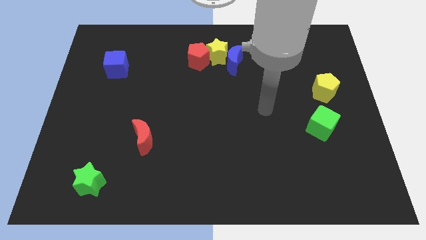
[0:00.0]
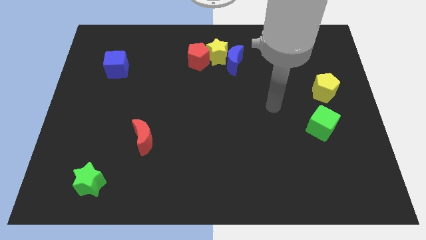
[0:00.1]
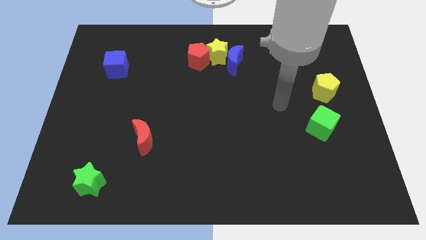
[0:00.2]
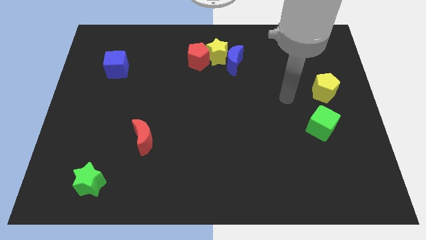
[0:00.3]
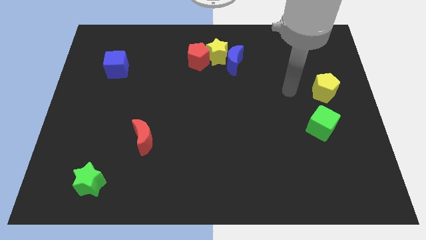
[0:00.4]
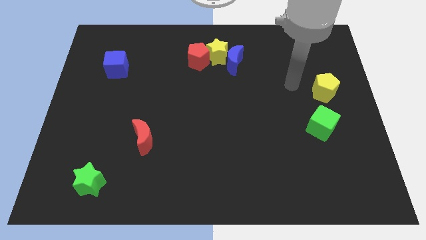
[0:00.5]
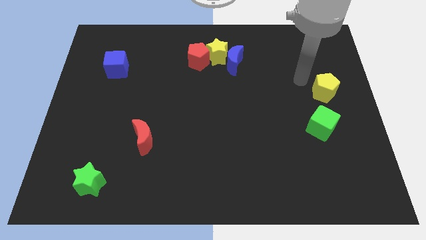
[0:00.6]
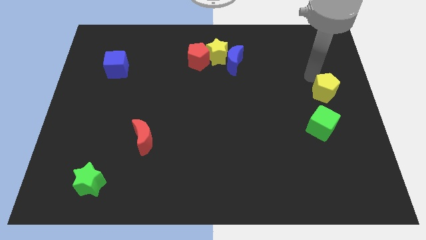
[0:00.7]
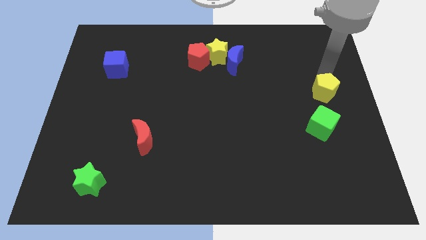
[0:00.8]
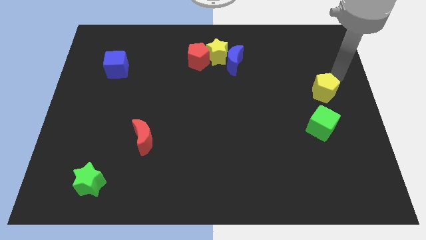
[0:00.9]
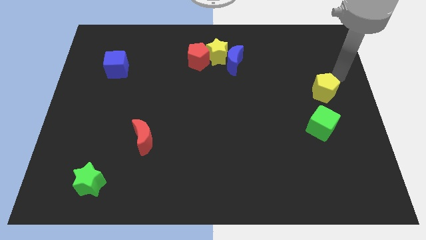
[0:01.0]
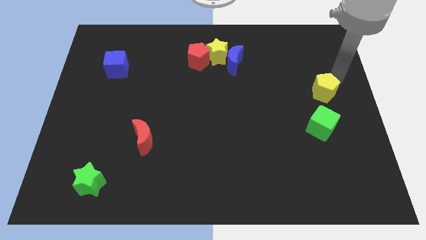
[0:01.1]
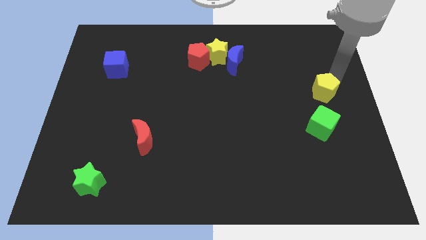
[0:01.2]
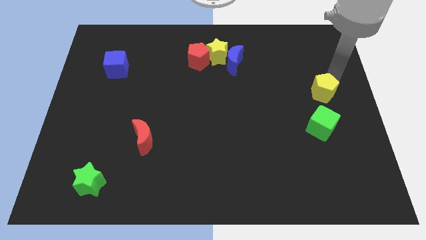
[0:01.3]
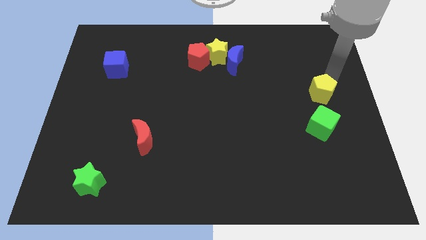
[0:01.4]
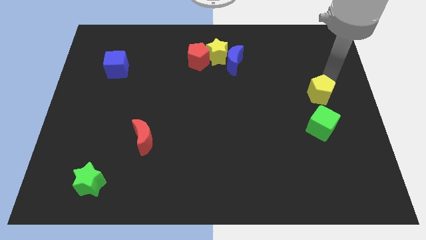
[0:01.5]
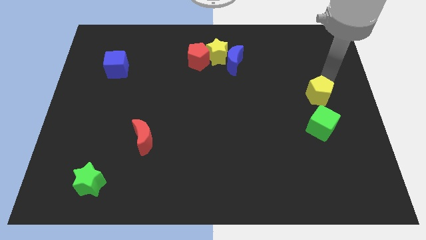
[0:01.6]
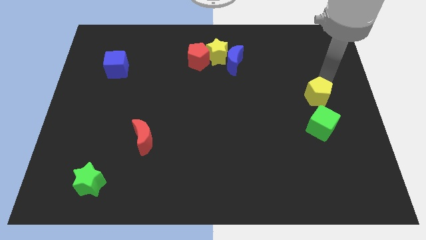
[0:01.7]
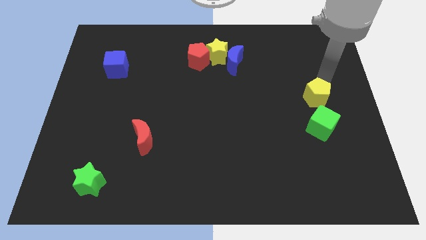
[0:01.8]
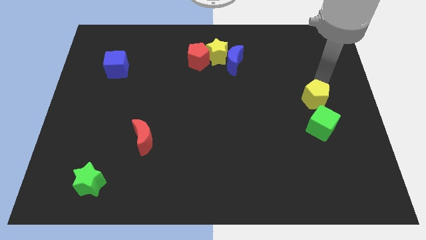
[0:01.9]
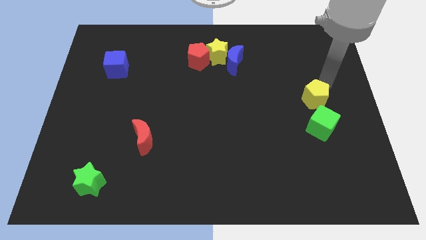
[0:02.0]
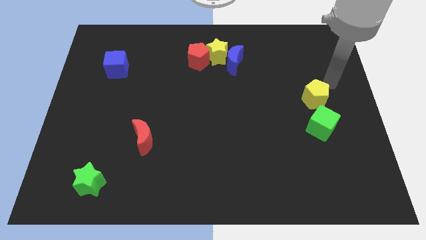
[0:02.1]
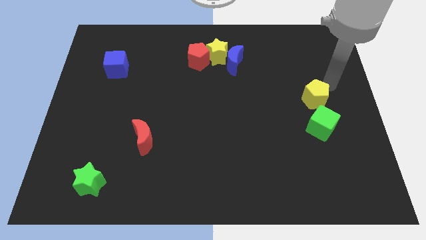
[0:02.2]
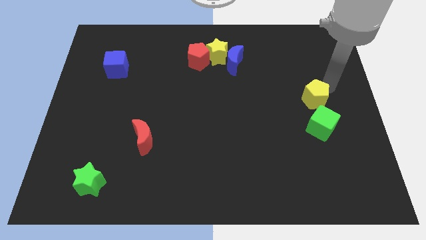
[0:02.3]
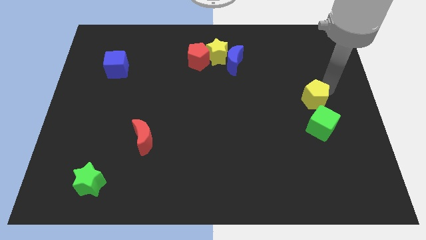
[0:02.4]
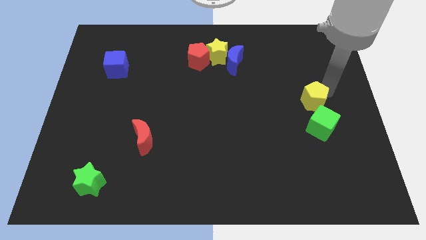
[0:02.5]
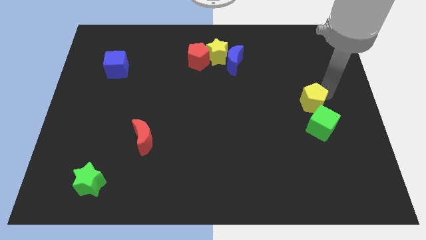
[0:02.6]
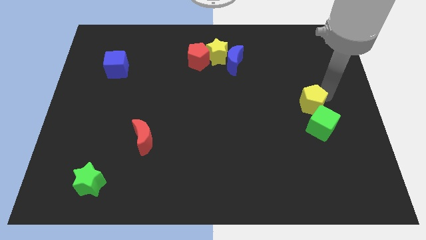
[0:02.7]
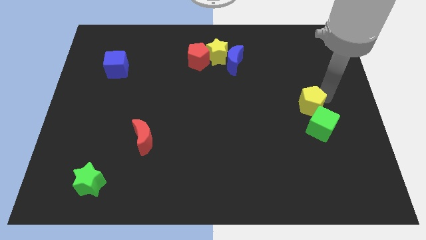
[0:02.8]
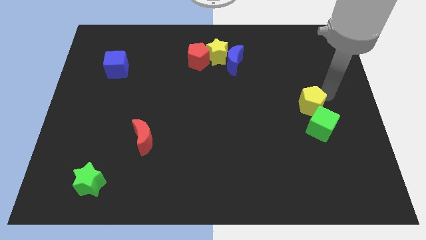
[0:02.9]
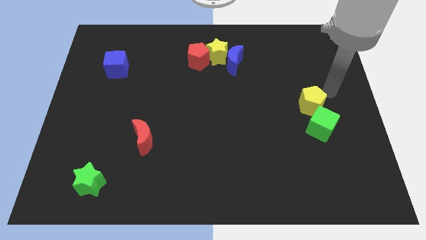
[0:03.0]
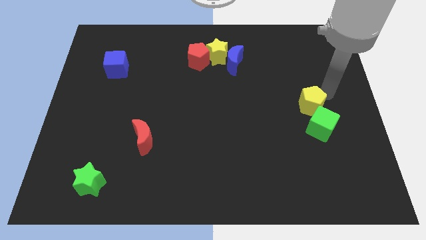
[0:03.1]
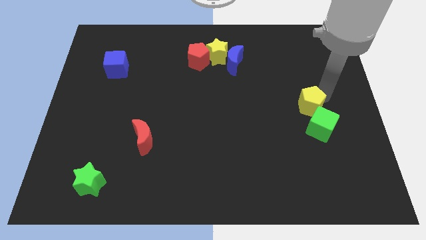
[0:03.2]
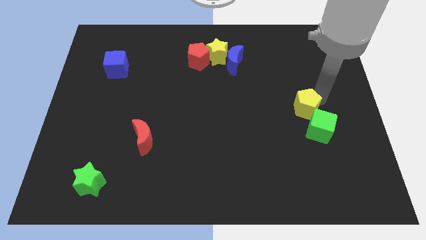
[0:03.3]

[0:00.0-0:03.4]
slide the yellow pentagon a little bit downwards and to the left diagonally

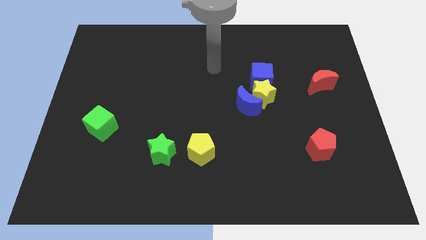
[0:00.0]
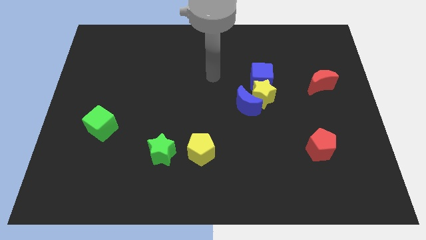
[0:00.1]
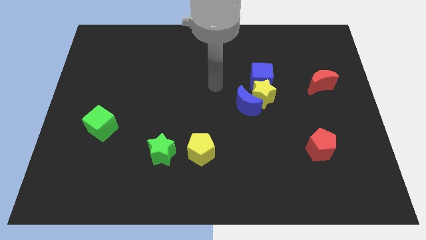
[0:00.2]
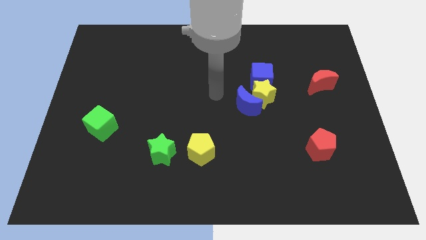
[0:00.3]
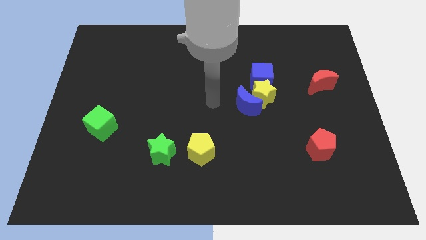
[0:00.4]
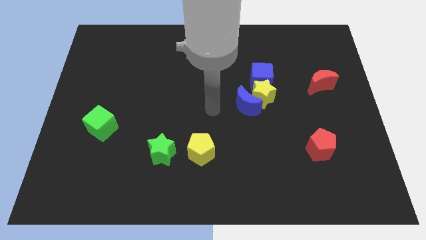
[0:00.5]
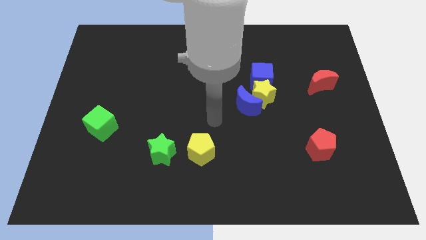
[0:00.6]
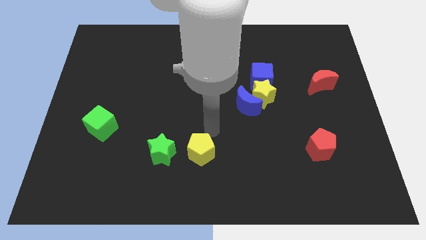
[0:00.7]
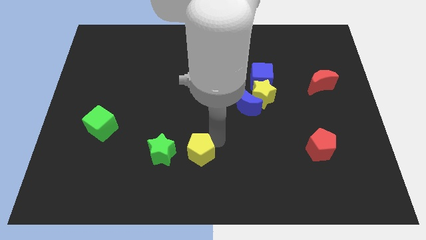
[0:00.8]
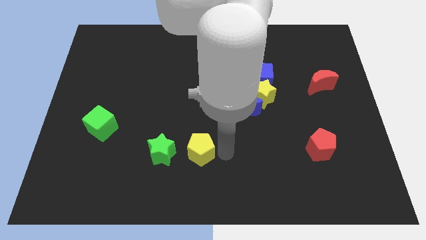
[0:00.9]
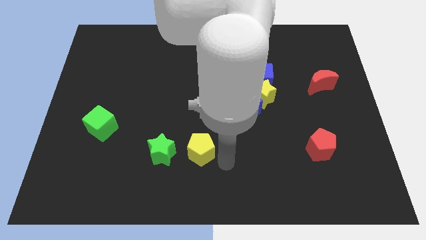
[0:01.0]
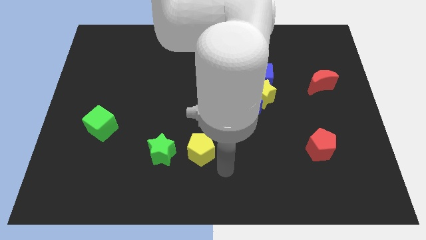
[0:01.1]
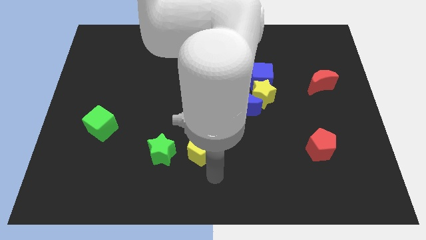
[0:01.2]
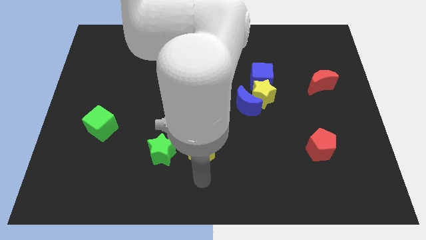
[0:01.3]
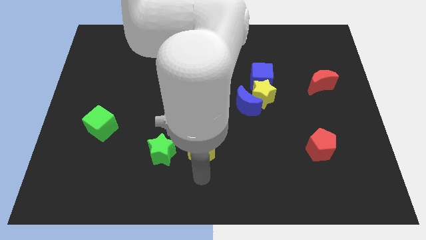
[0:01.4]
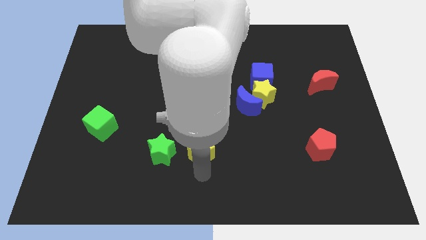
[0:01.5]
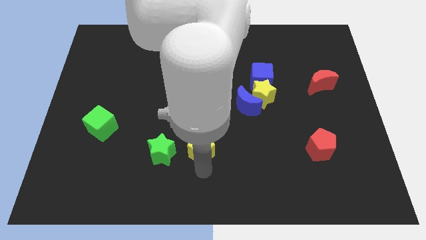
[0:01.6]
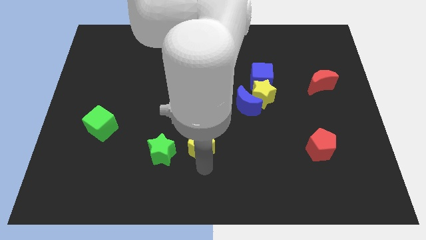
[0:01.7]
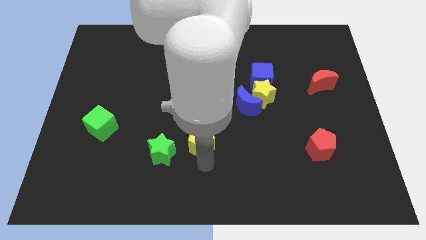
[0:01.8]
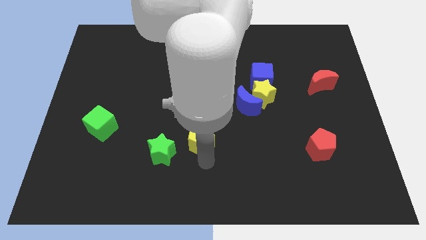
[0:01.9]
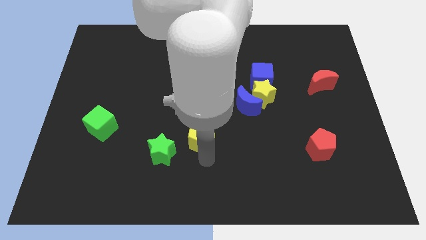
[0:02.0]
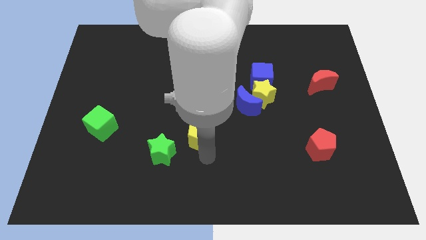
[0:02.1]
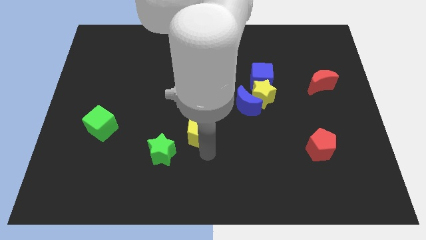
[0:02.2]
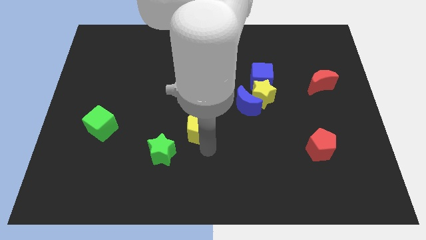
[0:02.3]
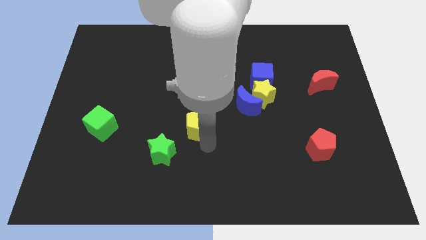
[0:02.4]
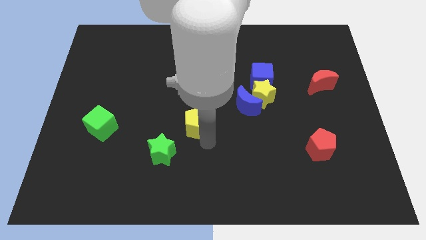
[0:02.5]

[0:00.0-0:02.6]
push the yellow pentagon up a bit

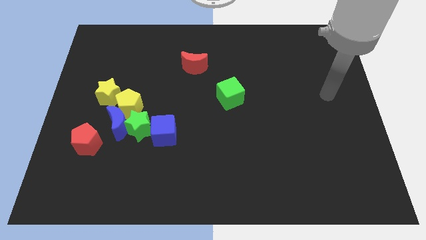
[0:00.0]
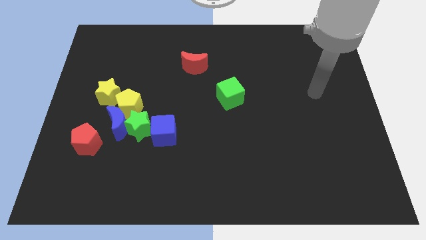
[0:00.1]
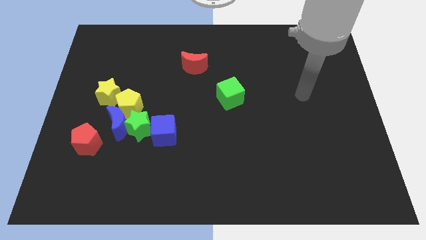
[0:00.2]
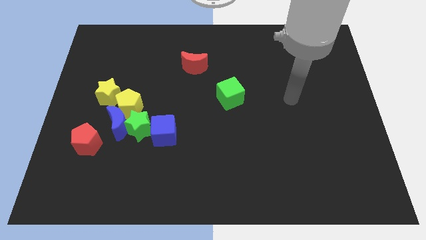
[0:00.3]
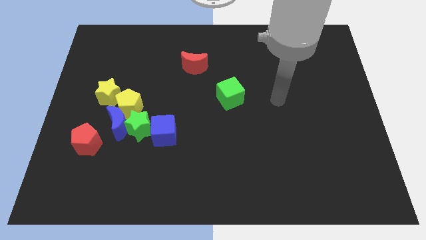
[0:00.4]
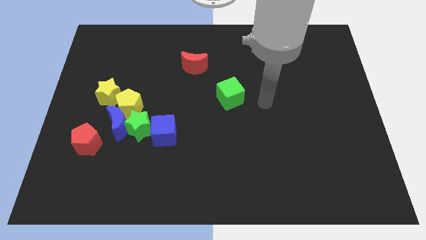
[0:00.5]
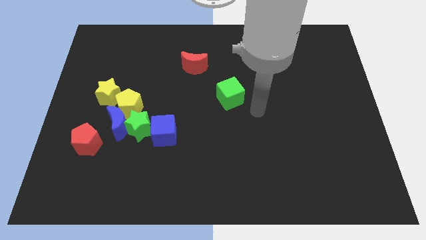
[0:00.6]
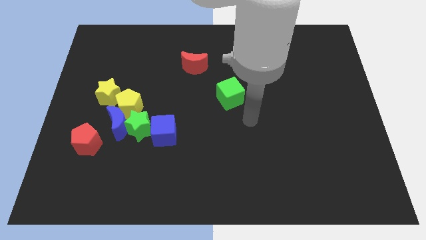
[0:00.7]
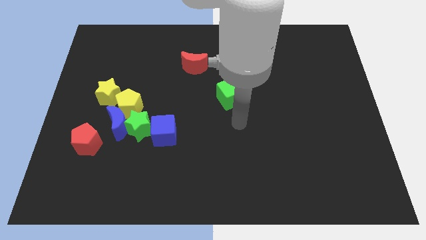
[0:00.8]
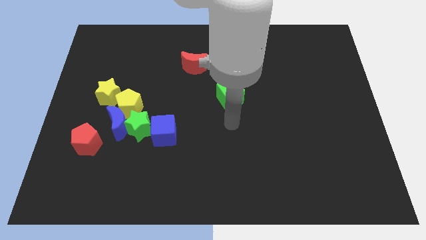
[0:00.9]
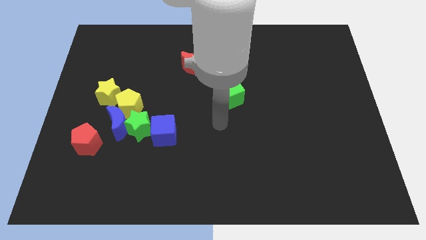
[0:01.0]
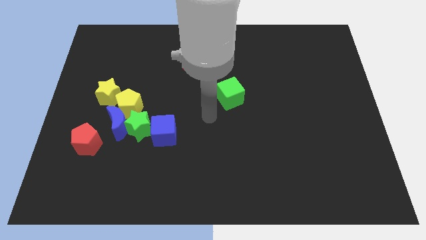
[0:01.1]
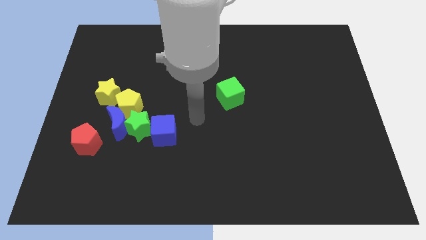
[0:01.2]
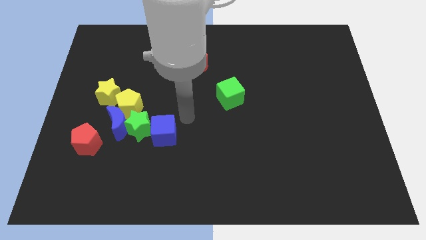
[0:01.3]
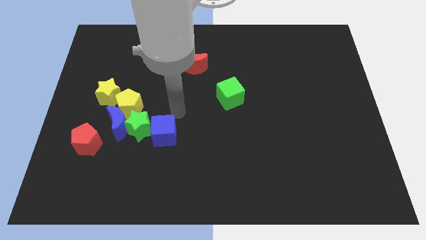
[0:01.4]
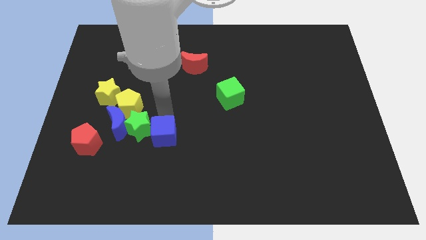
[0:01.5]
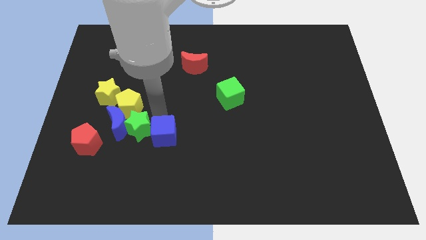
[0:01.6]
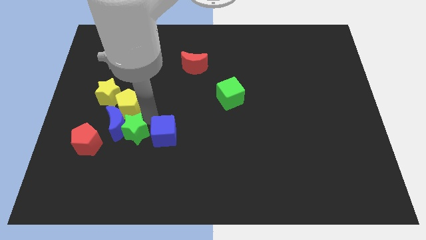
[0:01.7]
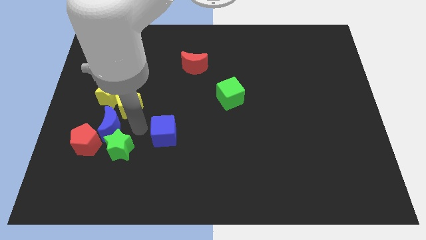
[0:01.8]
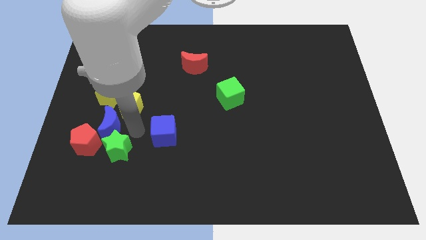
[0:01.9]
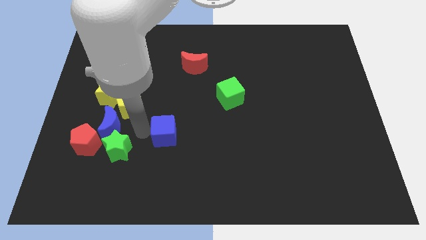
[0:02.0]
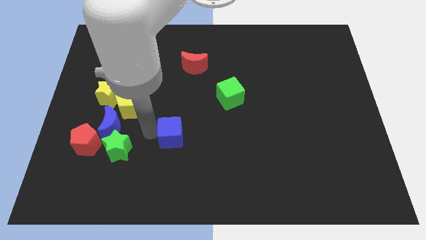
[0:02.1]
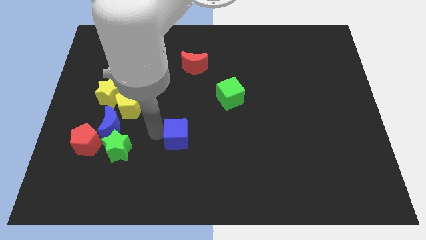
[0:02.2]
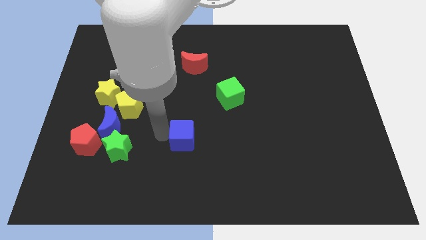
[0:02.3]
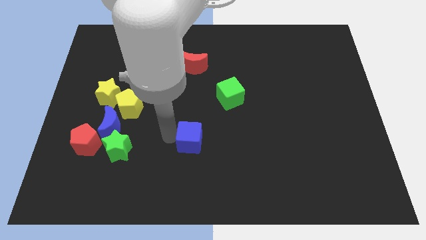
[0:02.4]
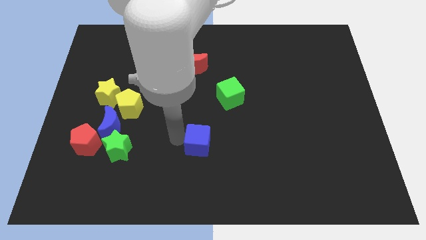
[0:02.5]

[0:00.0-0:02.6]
slightly push the blue cube right
